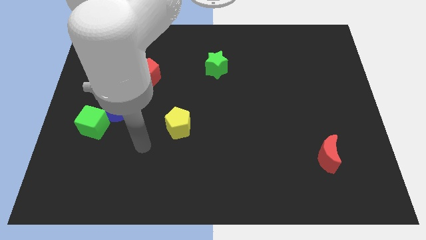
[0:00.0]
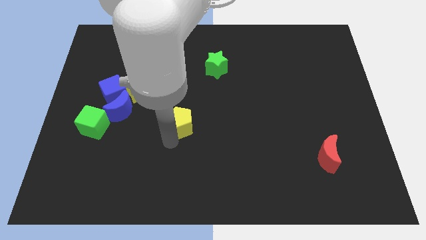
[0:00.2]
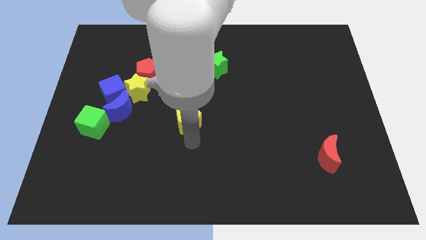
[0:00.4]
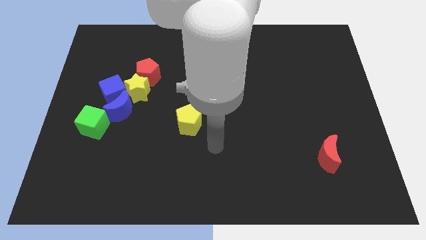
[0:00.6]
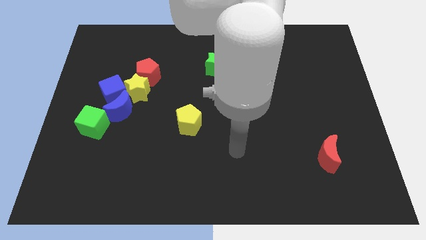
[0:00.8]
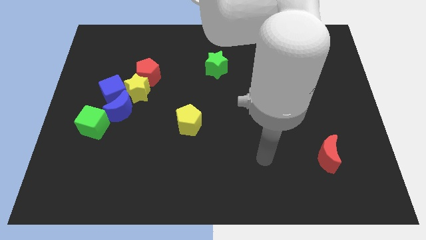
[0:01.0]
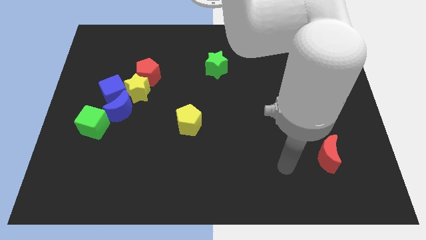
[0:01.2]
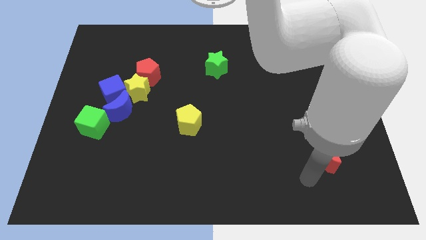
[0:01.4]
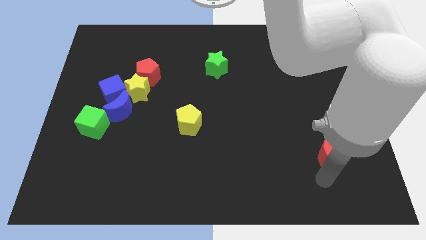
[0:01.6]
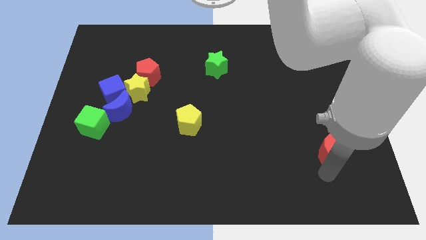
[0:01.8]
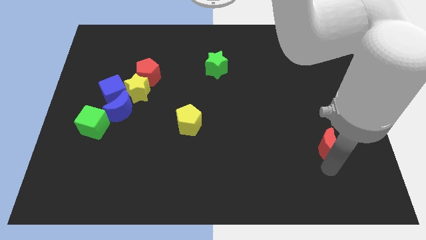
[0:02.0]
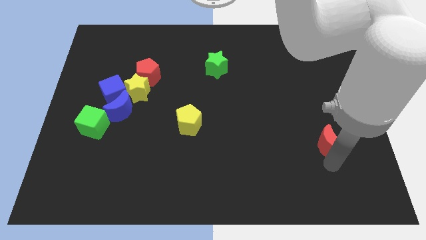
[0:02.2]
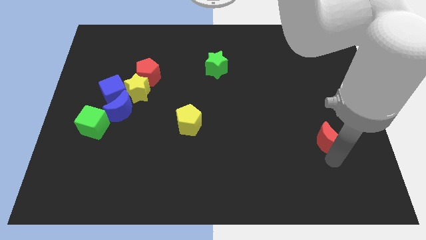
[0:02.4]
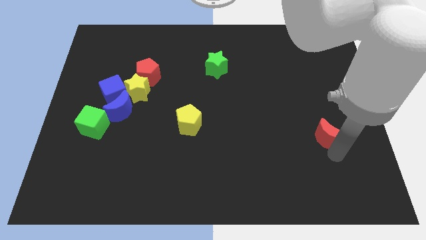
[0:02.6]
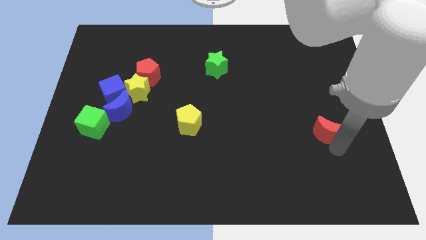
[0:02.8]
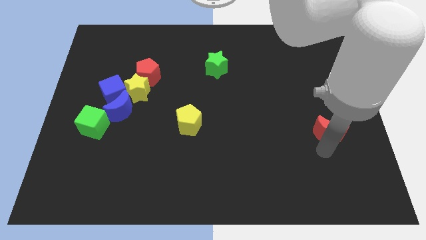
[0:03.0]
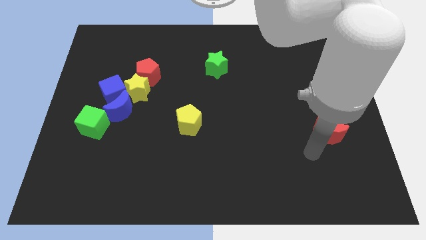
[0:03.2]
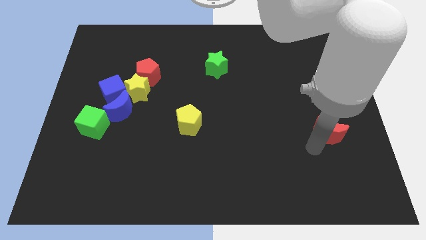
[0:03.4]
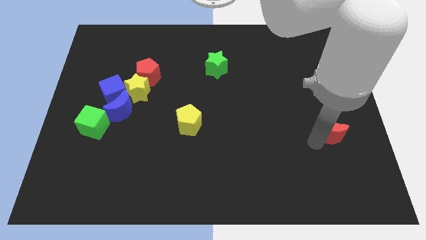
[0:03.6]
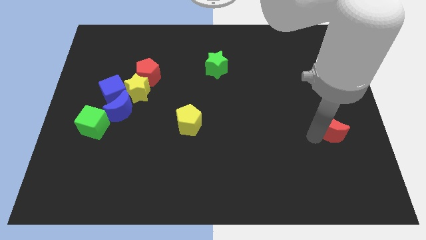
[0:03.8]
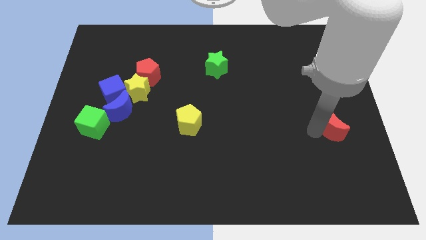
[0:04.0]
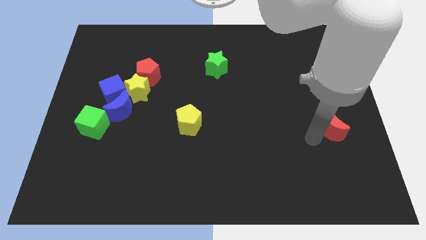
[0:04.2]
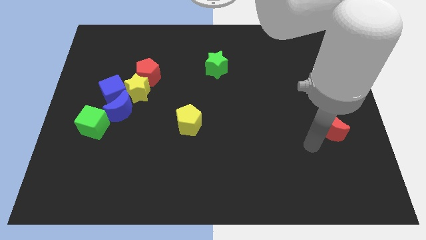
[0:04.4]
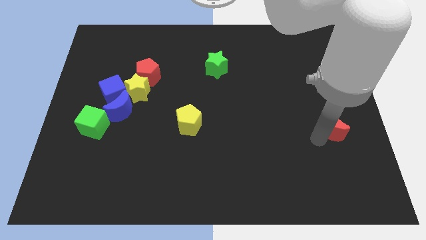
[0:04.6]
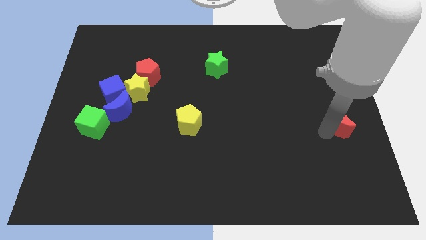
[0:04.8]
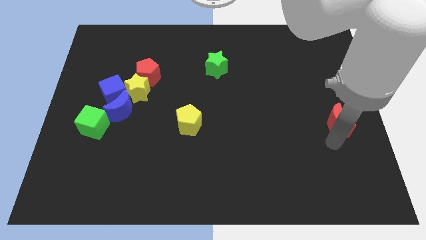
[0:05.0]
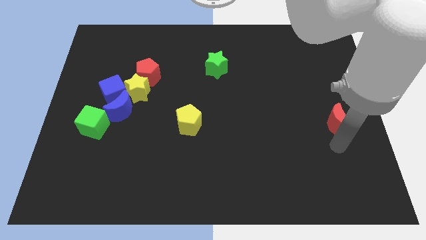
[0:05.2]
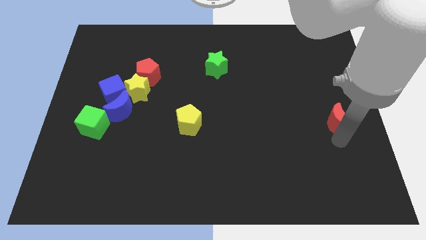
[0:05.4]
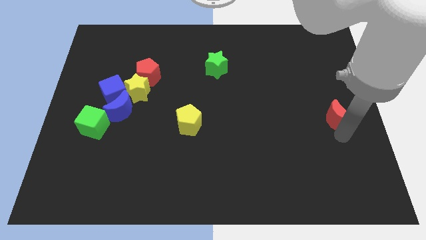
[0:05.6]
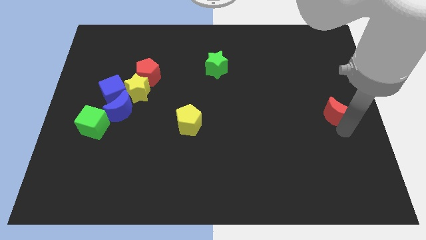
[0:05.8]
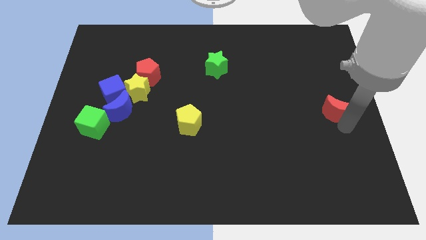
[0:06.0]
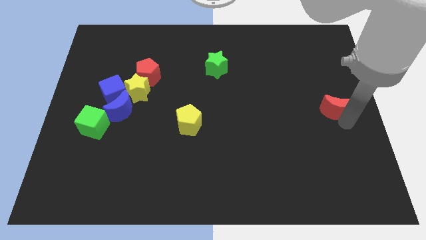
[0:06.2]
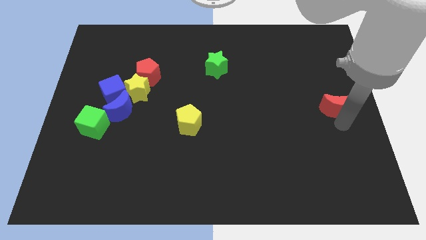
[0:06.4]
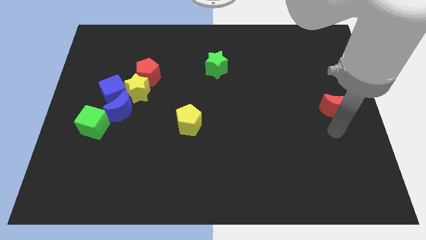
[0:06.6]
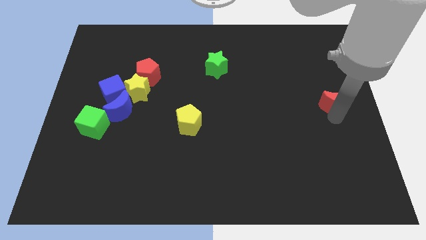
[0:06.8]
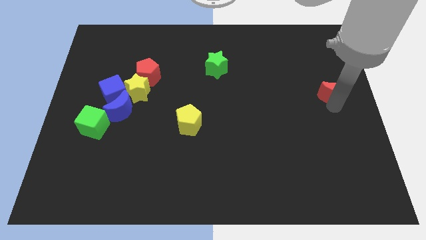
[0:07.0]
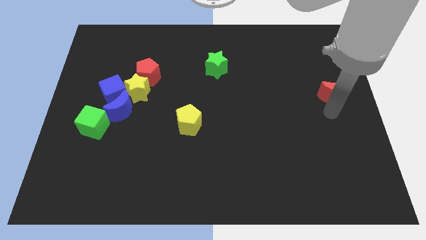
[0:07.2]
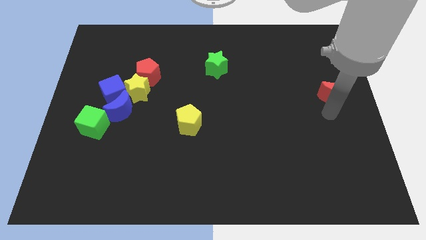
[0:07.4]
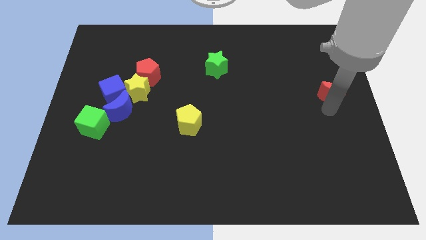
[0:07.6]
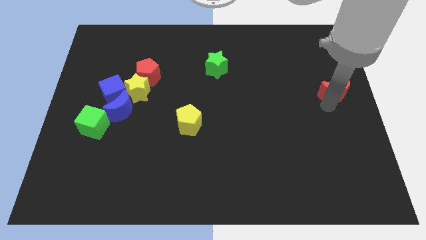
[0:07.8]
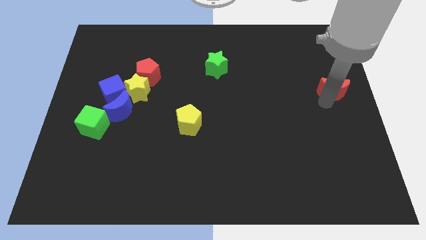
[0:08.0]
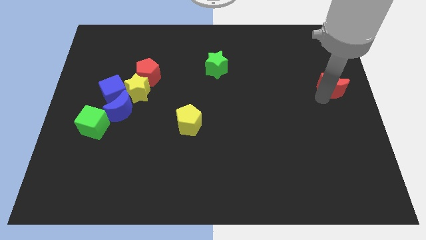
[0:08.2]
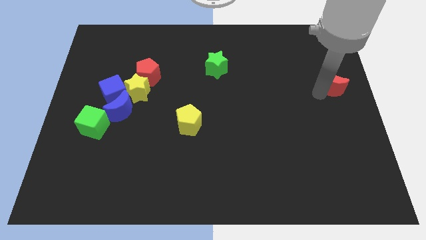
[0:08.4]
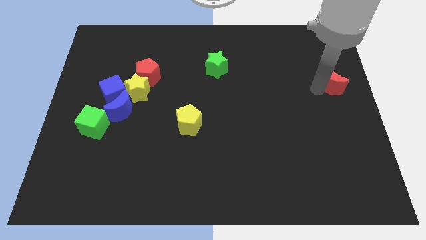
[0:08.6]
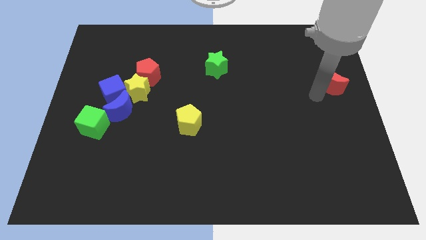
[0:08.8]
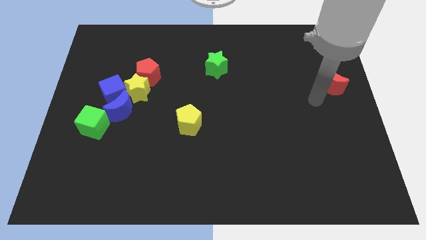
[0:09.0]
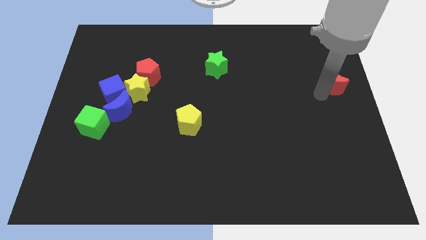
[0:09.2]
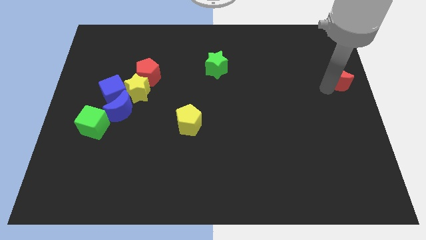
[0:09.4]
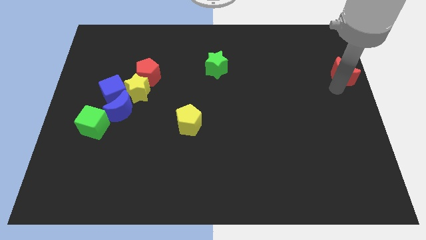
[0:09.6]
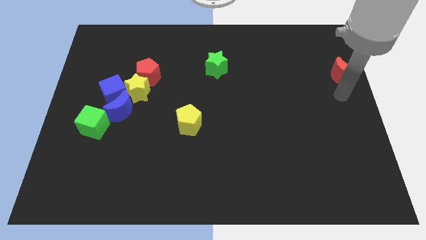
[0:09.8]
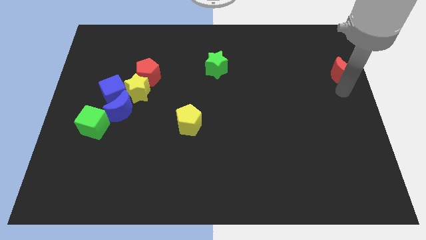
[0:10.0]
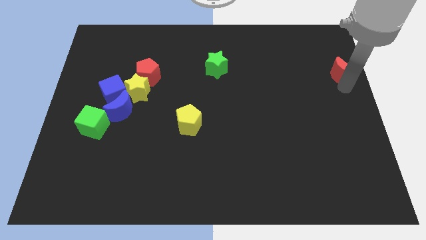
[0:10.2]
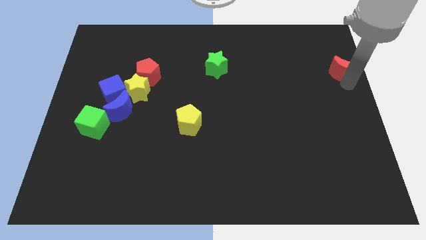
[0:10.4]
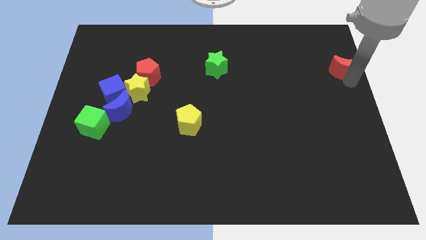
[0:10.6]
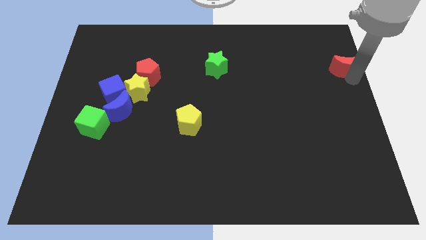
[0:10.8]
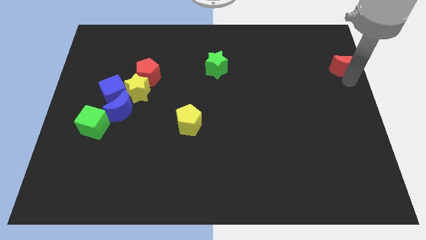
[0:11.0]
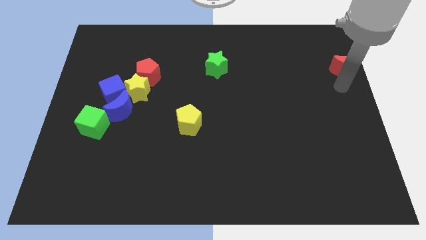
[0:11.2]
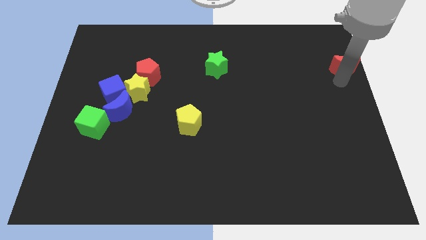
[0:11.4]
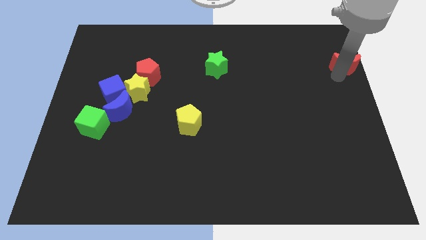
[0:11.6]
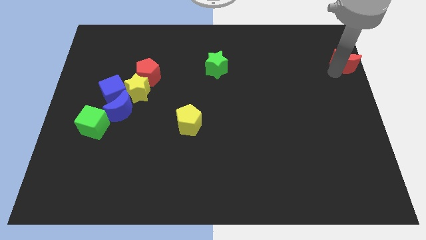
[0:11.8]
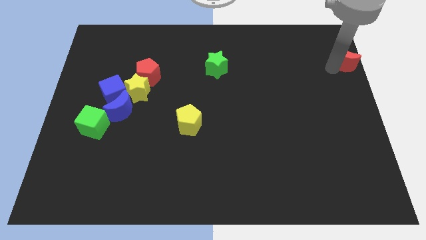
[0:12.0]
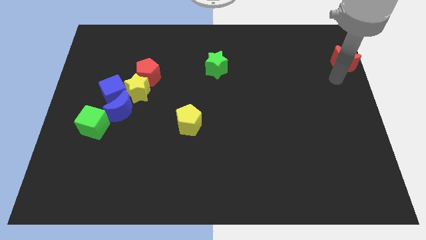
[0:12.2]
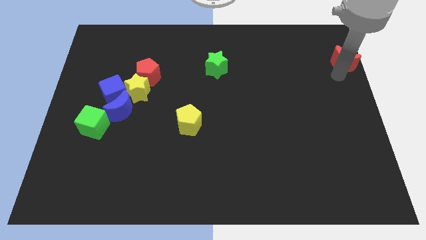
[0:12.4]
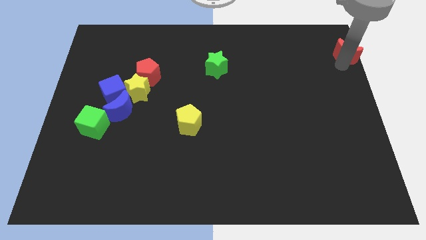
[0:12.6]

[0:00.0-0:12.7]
push the red moon to the top right corner

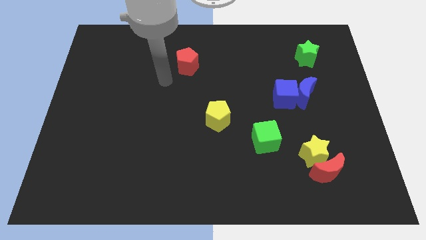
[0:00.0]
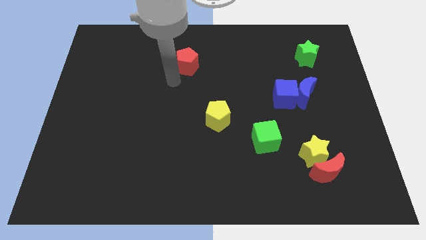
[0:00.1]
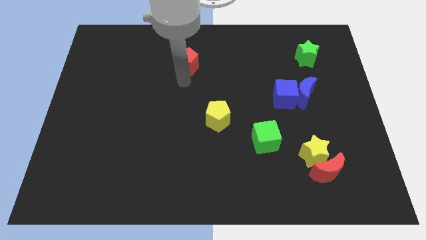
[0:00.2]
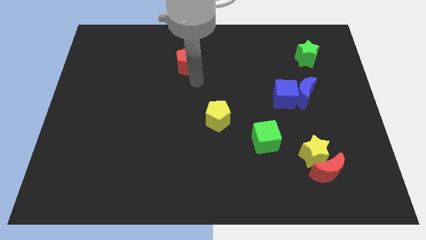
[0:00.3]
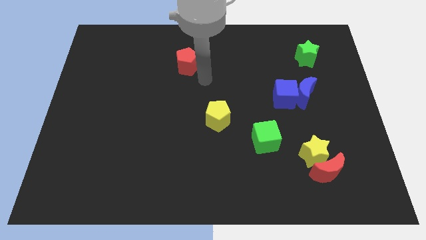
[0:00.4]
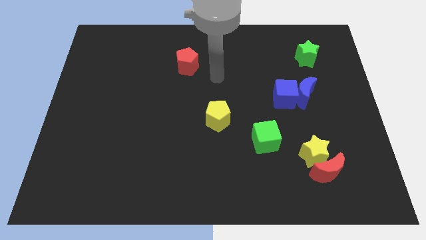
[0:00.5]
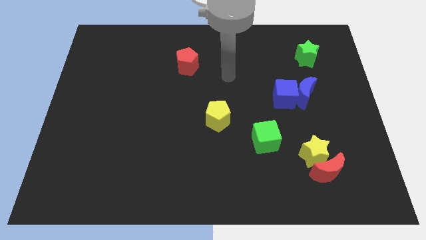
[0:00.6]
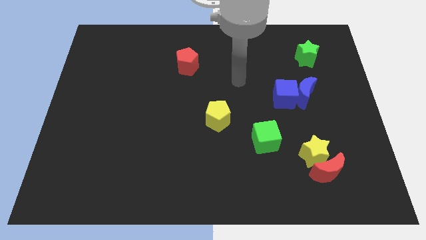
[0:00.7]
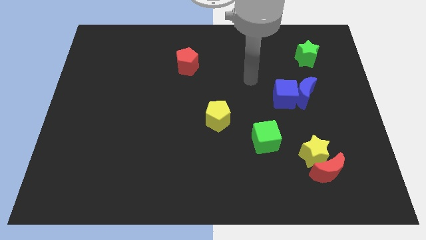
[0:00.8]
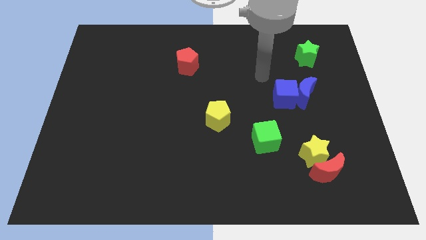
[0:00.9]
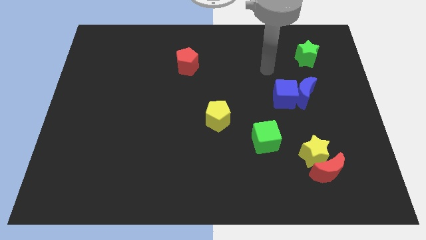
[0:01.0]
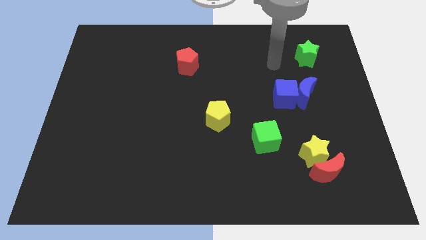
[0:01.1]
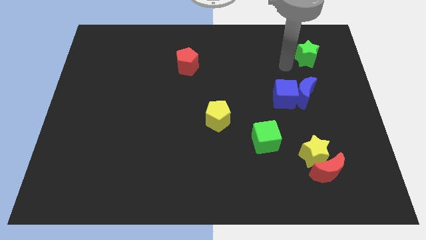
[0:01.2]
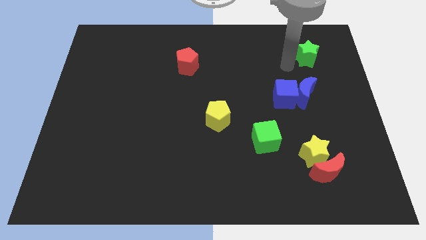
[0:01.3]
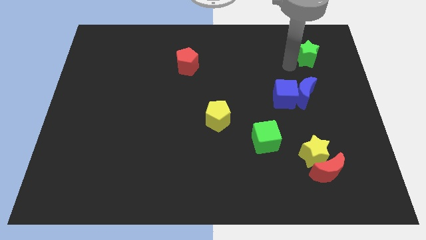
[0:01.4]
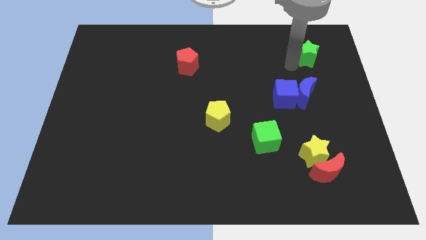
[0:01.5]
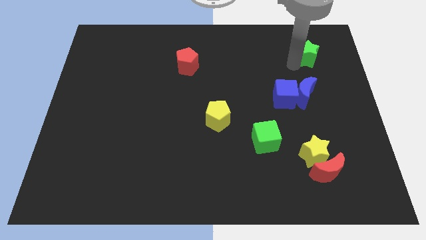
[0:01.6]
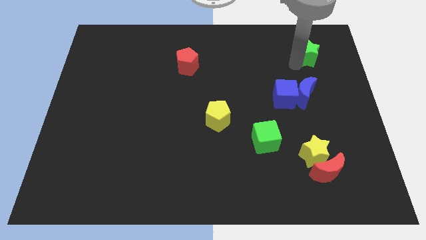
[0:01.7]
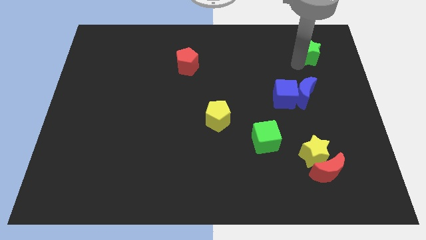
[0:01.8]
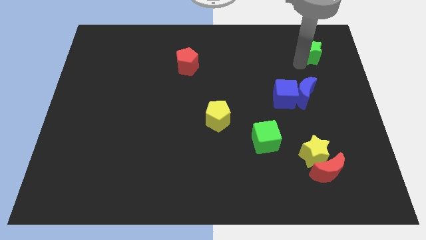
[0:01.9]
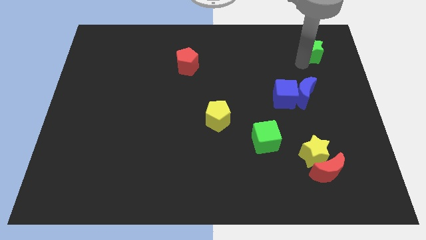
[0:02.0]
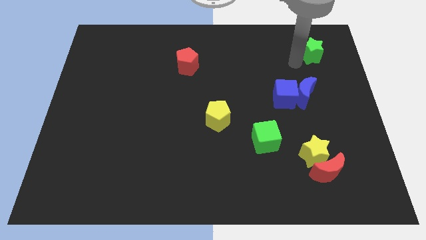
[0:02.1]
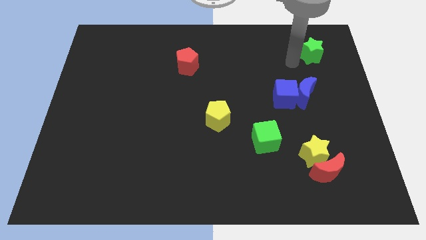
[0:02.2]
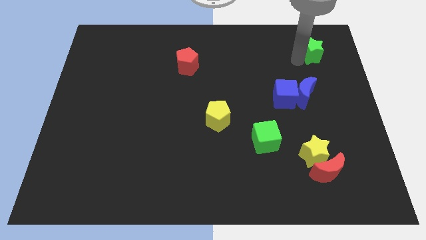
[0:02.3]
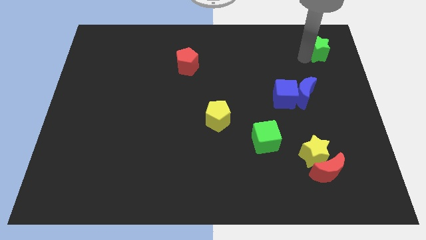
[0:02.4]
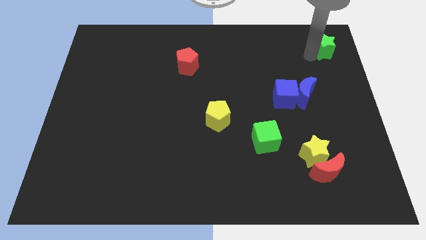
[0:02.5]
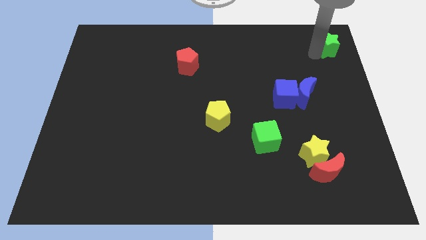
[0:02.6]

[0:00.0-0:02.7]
move the green star to the top right corner
